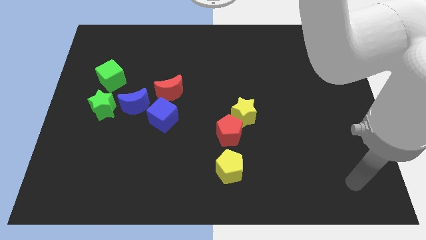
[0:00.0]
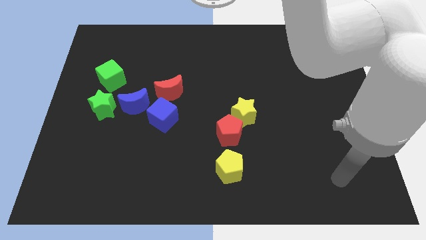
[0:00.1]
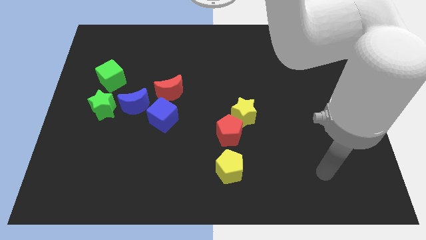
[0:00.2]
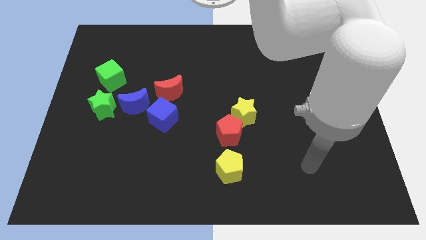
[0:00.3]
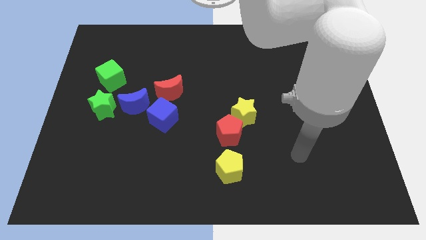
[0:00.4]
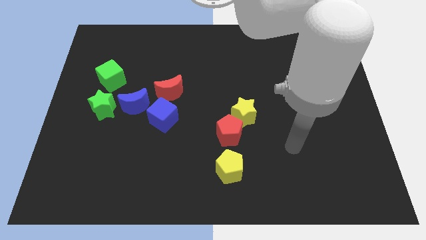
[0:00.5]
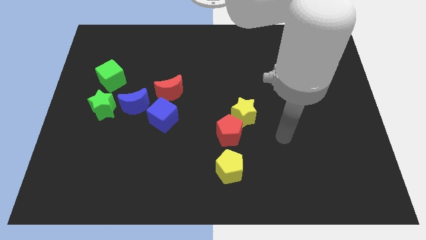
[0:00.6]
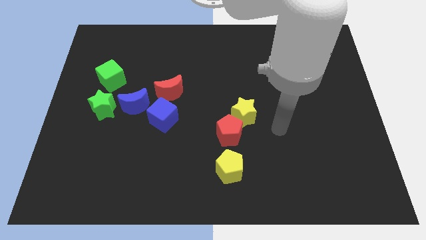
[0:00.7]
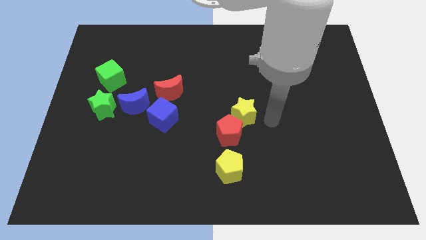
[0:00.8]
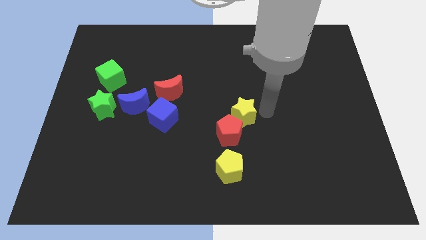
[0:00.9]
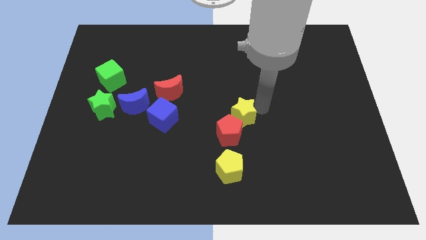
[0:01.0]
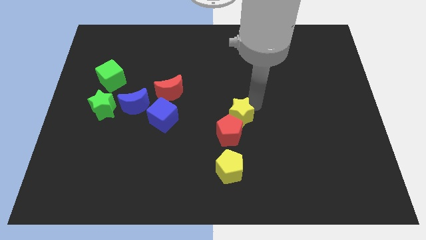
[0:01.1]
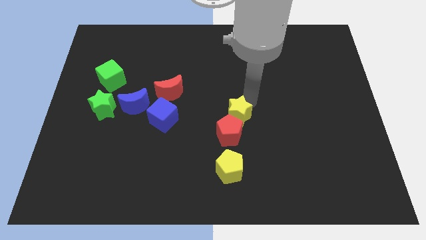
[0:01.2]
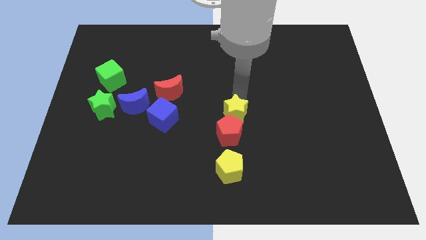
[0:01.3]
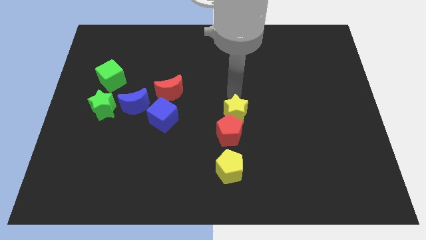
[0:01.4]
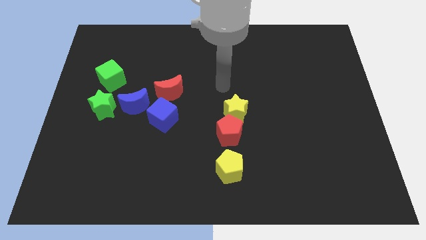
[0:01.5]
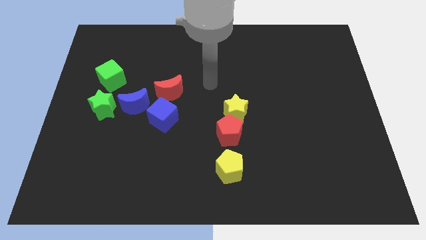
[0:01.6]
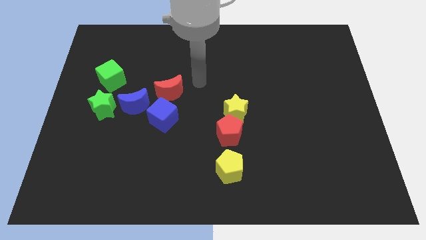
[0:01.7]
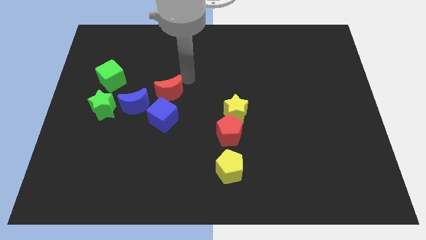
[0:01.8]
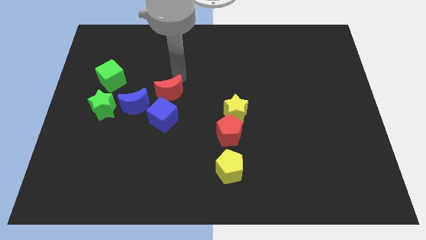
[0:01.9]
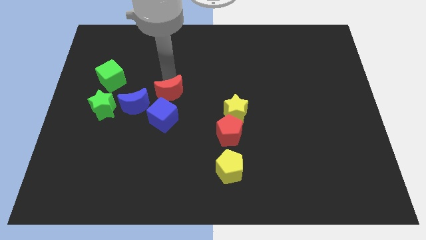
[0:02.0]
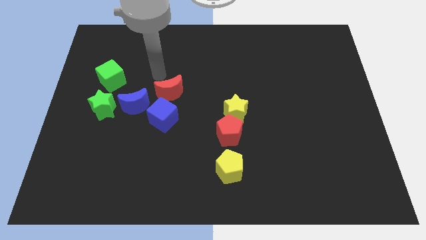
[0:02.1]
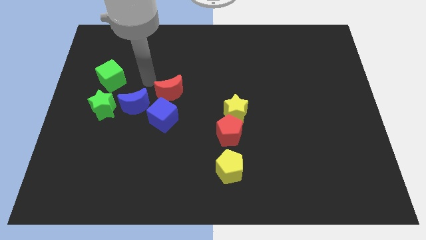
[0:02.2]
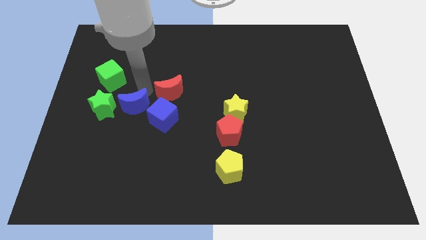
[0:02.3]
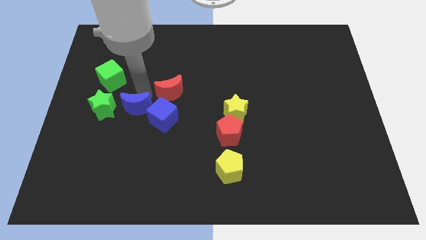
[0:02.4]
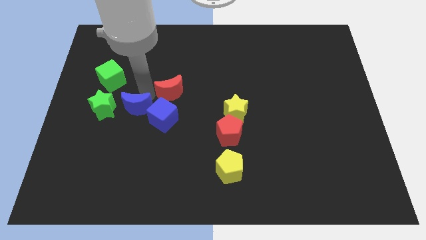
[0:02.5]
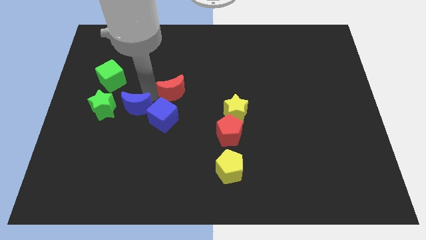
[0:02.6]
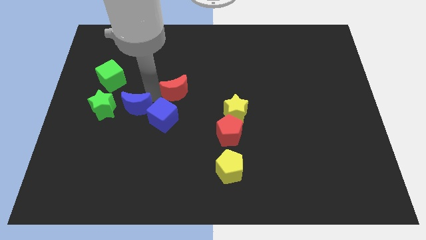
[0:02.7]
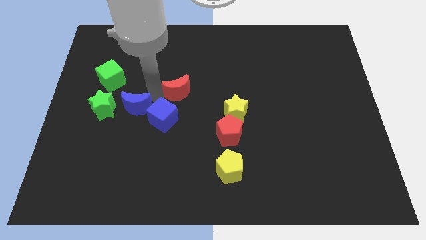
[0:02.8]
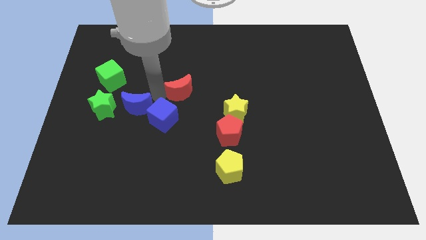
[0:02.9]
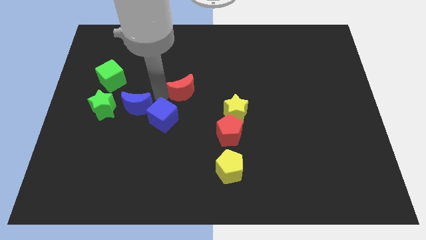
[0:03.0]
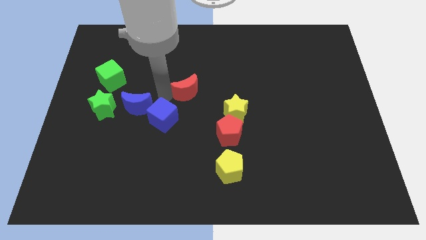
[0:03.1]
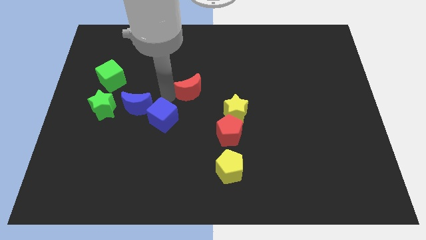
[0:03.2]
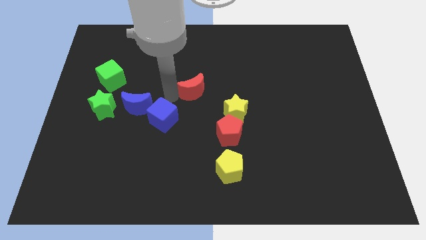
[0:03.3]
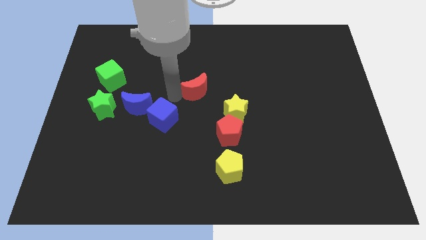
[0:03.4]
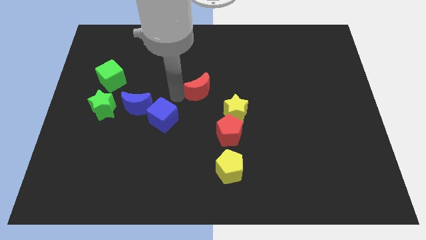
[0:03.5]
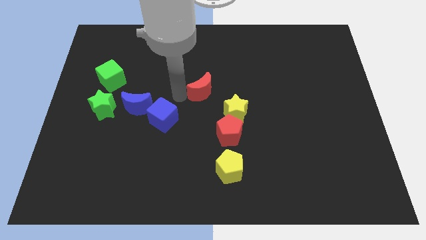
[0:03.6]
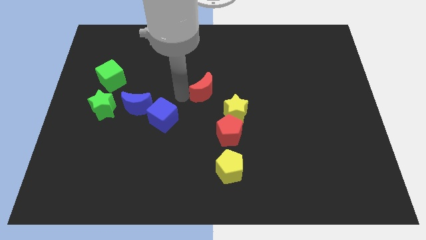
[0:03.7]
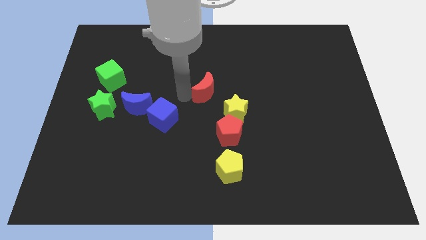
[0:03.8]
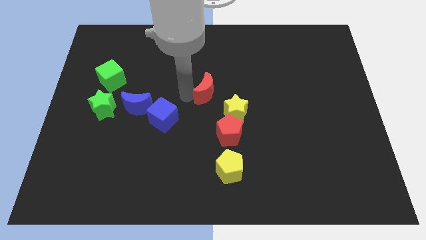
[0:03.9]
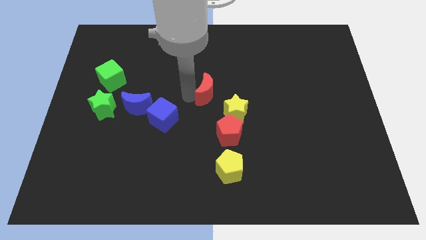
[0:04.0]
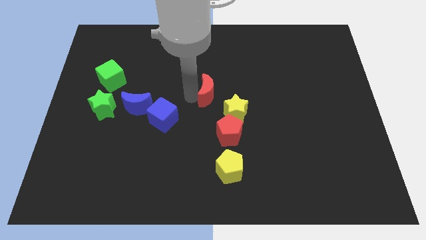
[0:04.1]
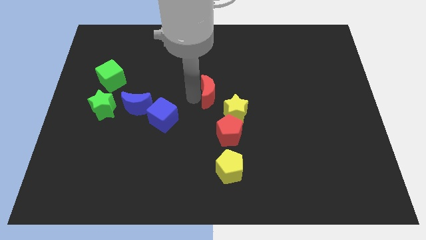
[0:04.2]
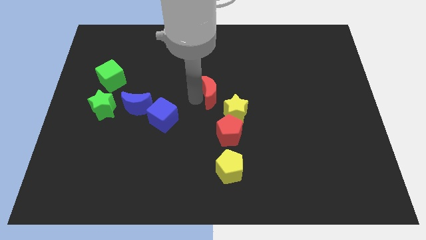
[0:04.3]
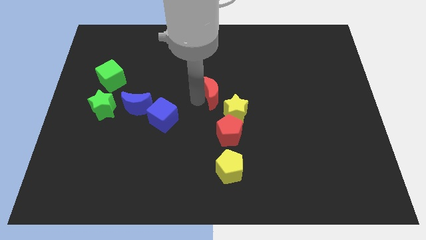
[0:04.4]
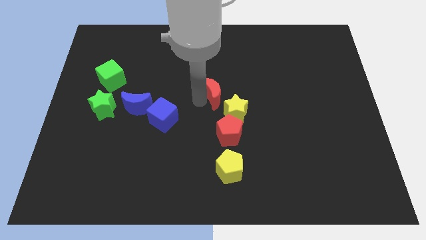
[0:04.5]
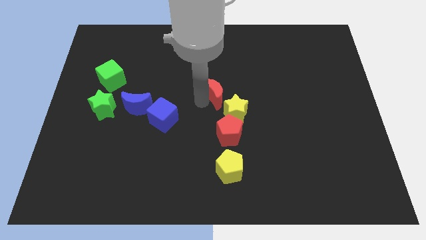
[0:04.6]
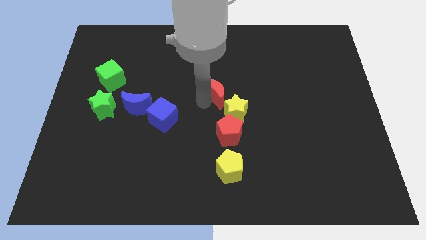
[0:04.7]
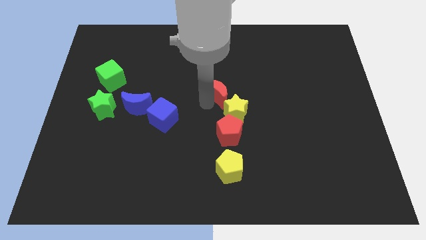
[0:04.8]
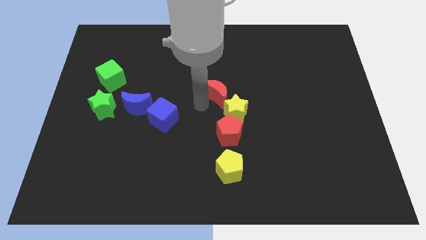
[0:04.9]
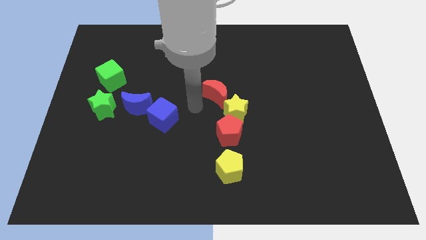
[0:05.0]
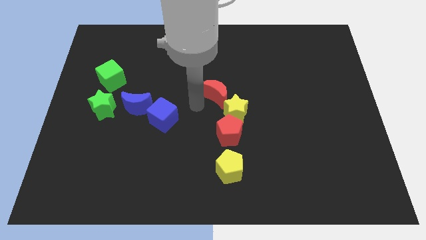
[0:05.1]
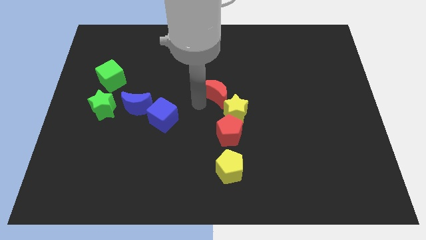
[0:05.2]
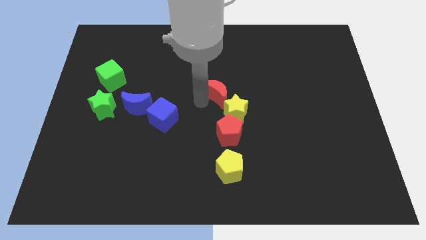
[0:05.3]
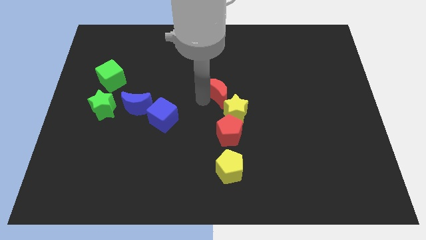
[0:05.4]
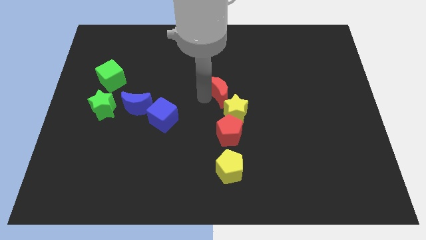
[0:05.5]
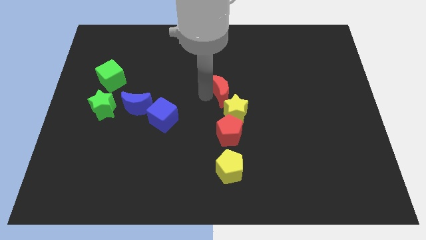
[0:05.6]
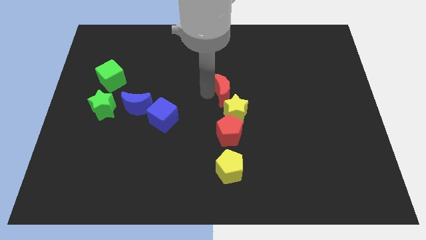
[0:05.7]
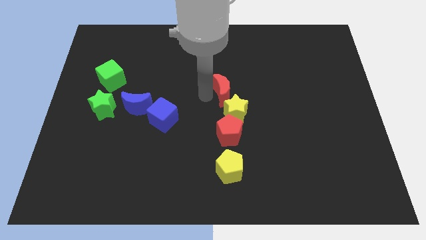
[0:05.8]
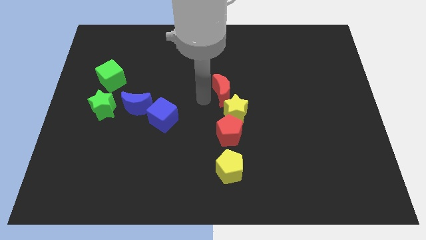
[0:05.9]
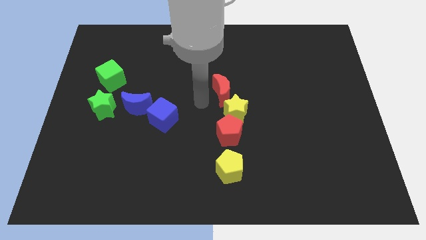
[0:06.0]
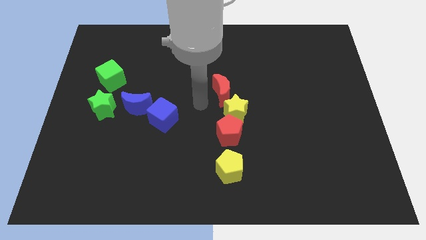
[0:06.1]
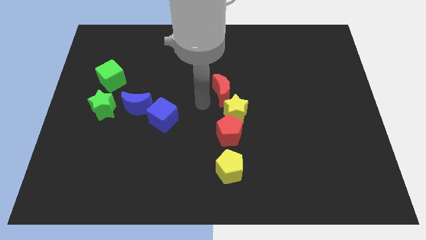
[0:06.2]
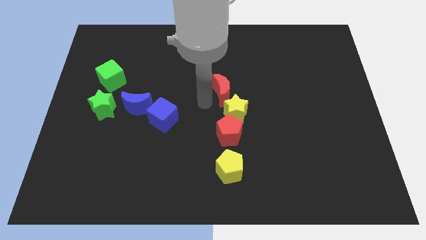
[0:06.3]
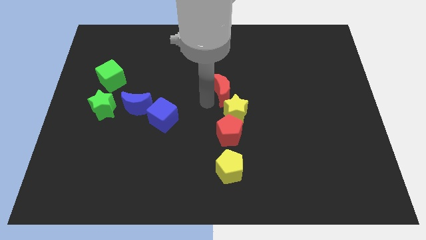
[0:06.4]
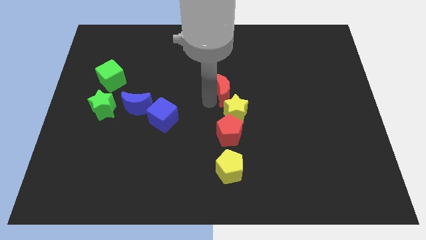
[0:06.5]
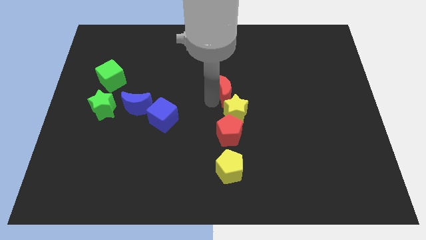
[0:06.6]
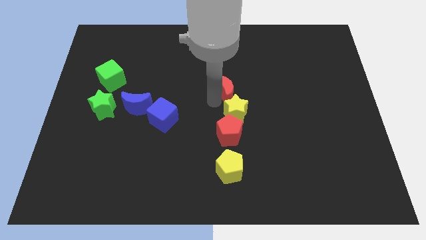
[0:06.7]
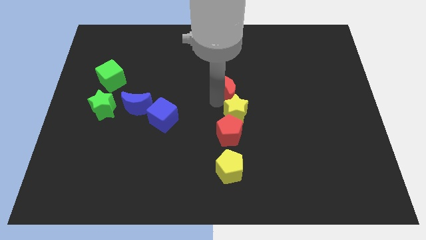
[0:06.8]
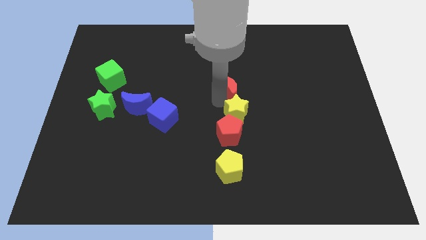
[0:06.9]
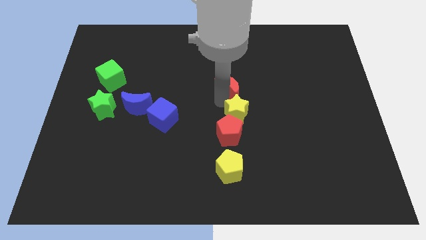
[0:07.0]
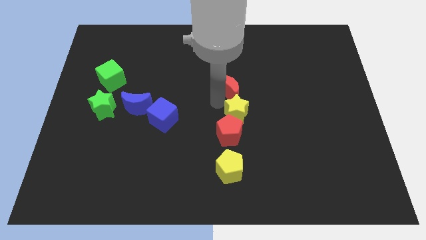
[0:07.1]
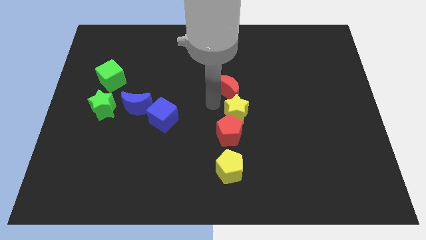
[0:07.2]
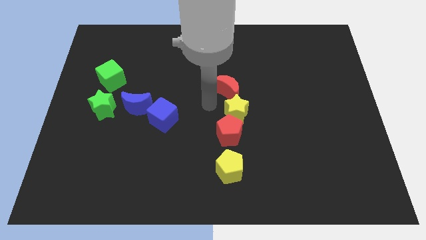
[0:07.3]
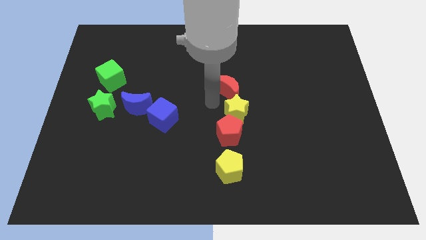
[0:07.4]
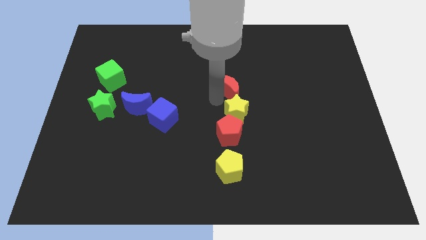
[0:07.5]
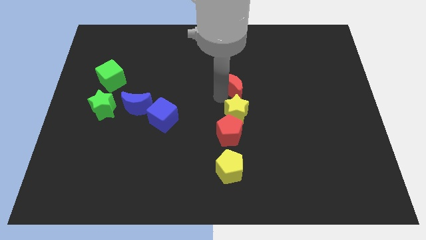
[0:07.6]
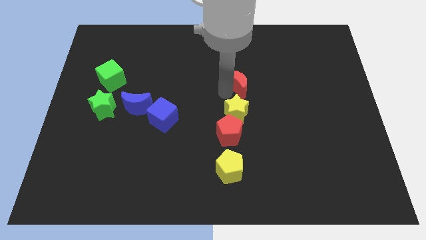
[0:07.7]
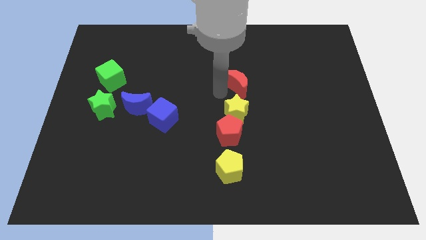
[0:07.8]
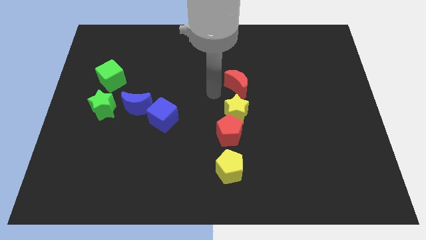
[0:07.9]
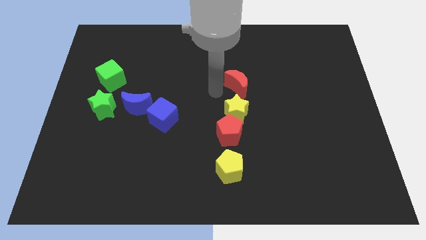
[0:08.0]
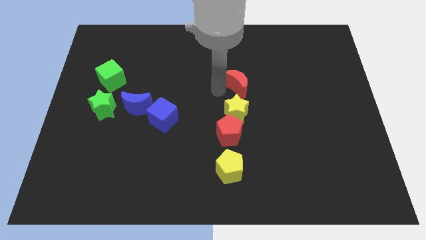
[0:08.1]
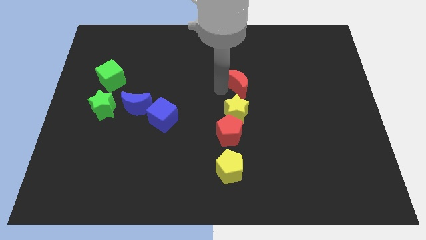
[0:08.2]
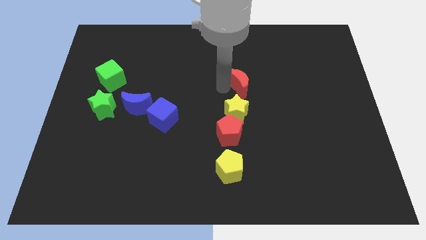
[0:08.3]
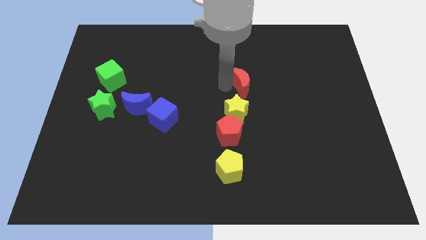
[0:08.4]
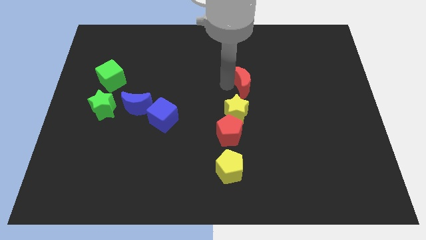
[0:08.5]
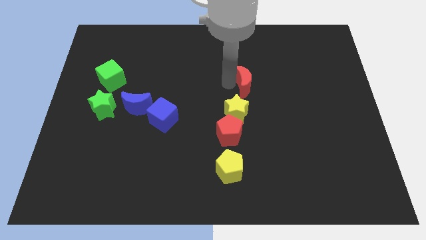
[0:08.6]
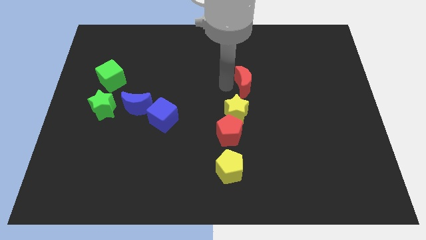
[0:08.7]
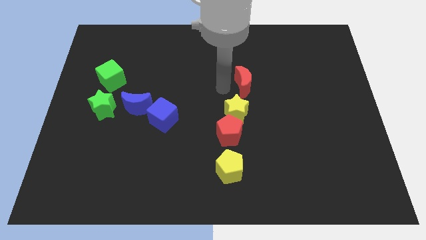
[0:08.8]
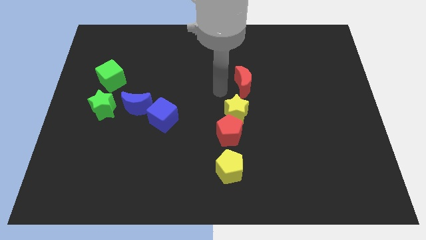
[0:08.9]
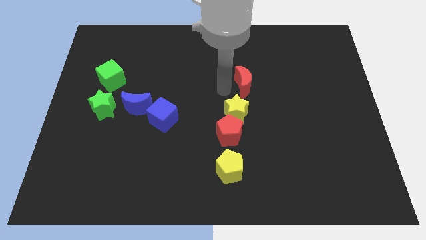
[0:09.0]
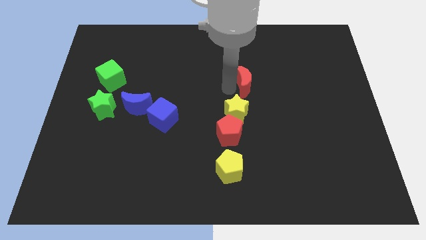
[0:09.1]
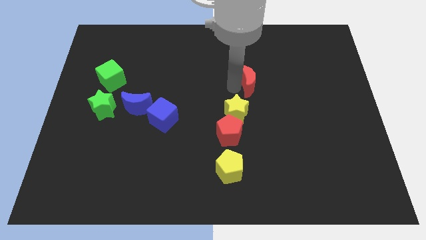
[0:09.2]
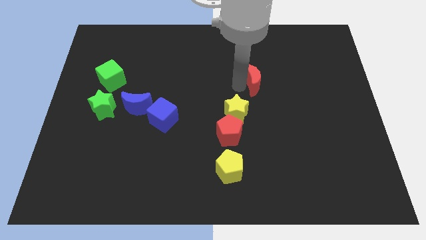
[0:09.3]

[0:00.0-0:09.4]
slide the red moon to the right
